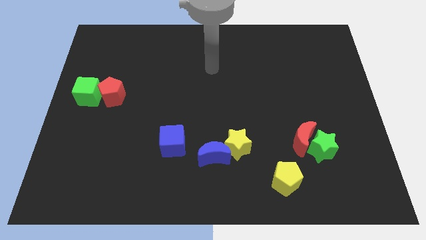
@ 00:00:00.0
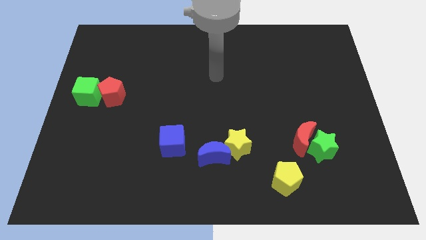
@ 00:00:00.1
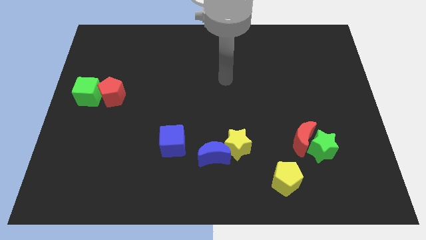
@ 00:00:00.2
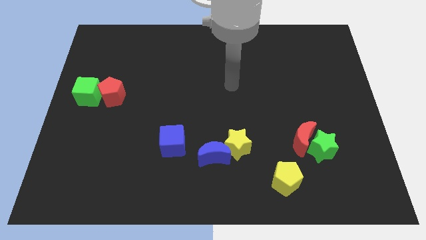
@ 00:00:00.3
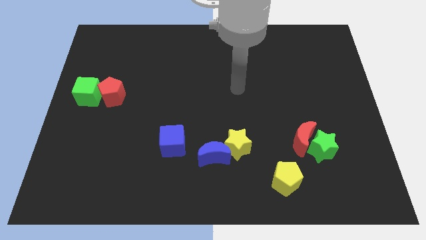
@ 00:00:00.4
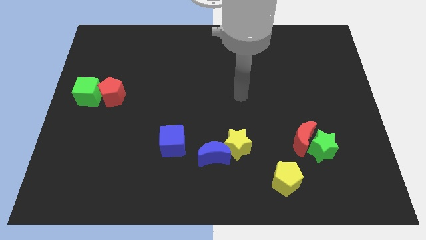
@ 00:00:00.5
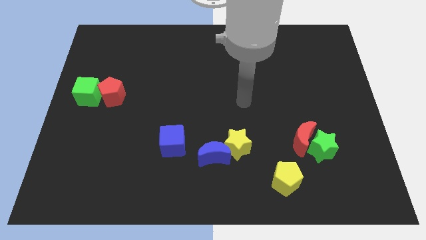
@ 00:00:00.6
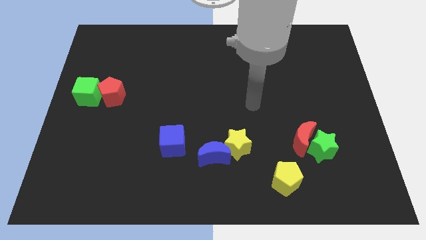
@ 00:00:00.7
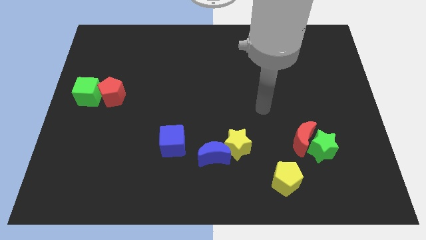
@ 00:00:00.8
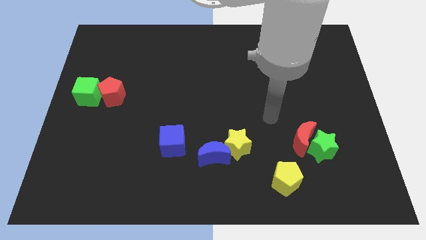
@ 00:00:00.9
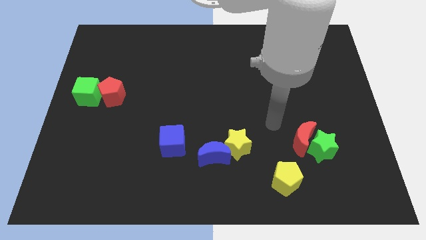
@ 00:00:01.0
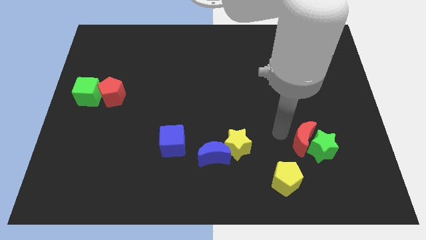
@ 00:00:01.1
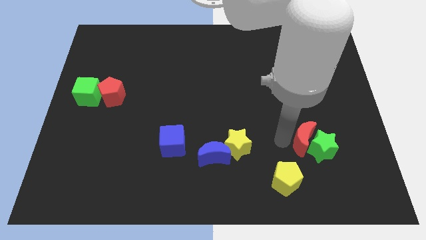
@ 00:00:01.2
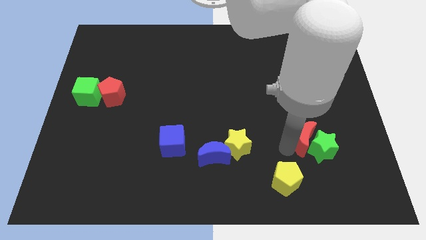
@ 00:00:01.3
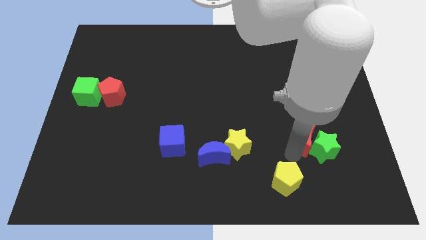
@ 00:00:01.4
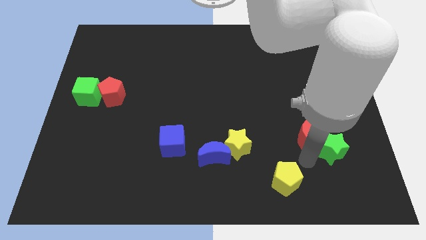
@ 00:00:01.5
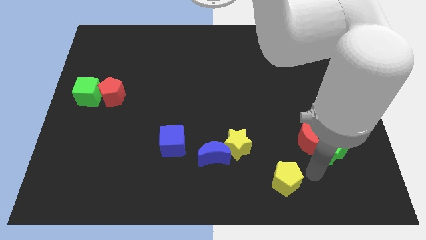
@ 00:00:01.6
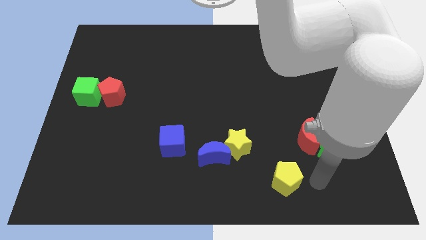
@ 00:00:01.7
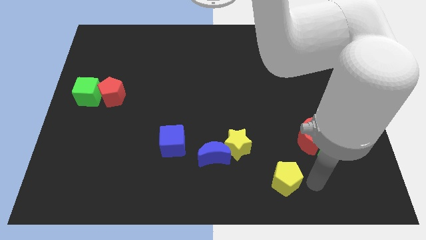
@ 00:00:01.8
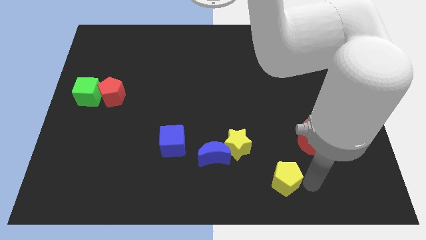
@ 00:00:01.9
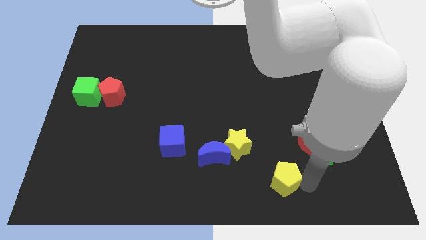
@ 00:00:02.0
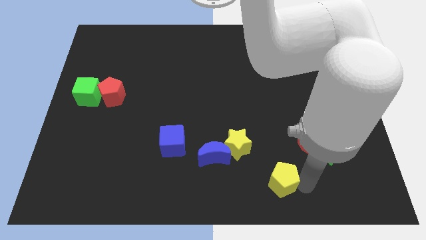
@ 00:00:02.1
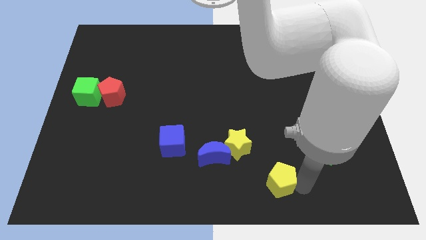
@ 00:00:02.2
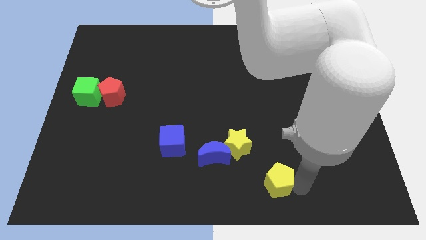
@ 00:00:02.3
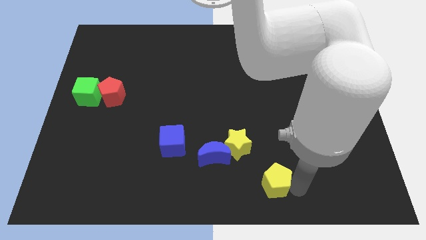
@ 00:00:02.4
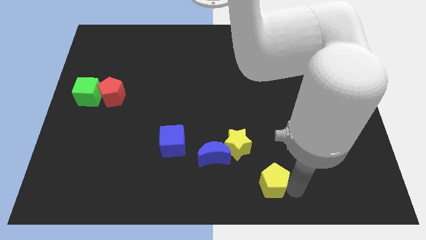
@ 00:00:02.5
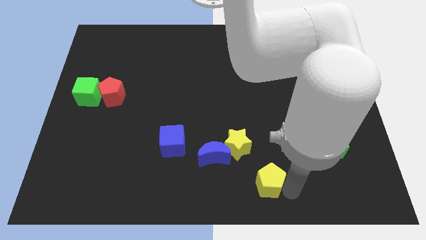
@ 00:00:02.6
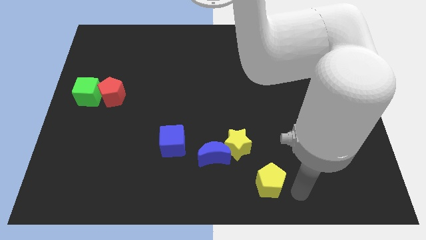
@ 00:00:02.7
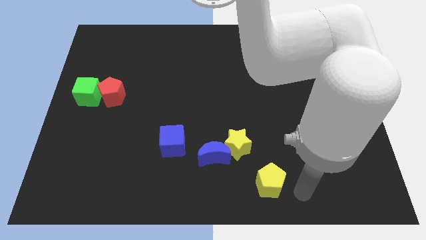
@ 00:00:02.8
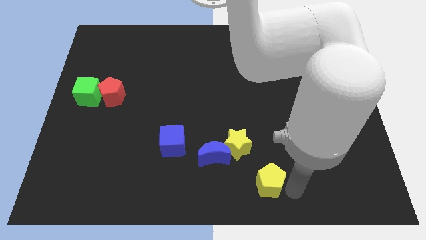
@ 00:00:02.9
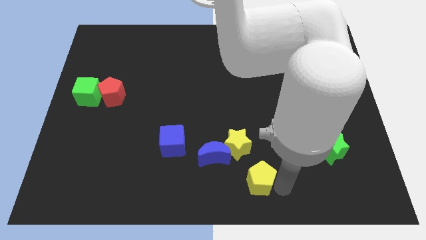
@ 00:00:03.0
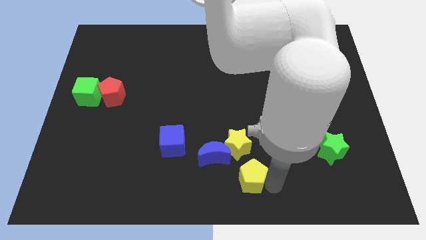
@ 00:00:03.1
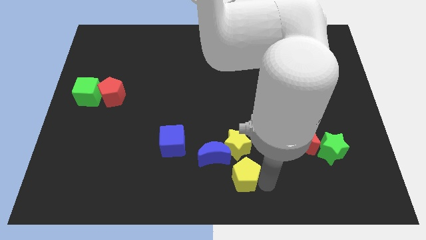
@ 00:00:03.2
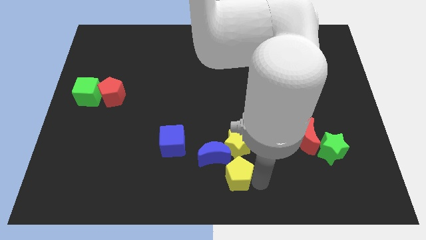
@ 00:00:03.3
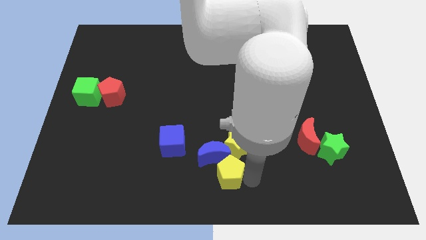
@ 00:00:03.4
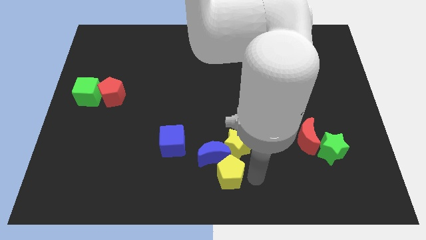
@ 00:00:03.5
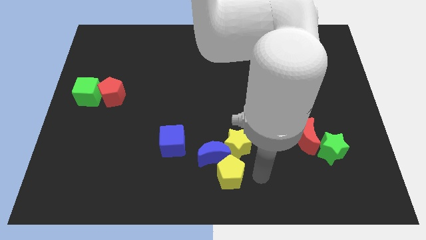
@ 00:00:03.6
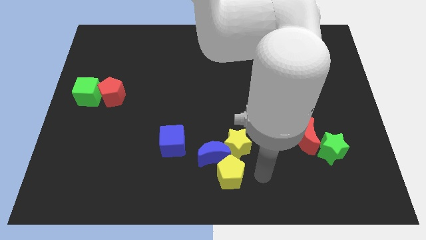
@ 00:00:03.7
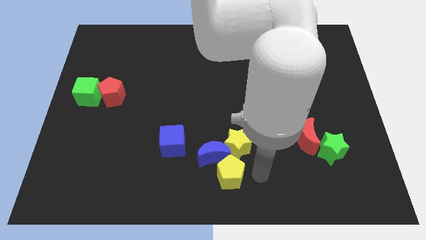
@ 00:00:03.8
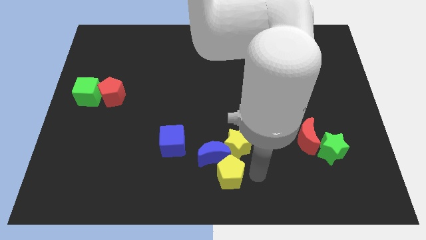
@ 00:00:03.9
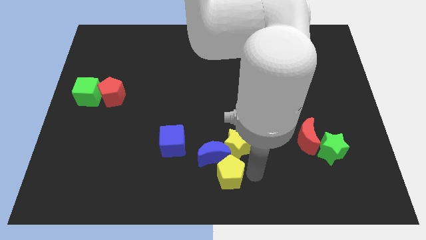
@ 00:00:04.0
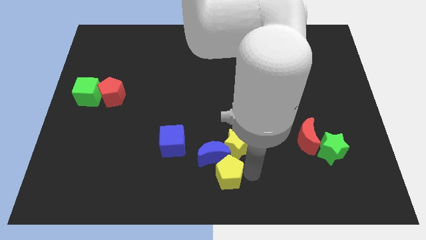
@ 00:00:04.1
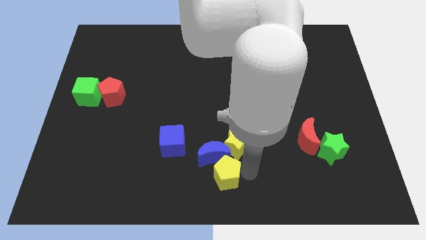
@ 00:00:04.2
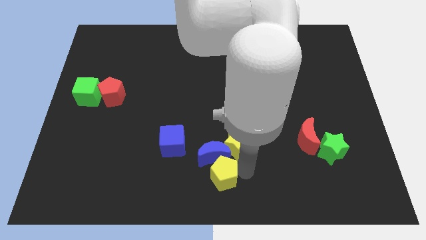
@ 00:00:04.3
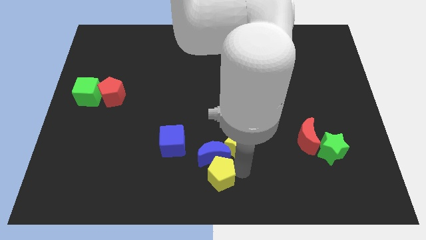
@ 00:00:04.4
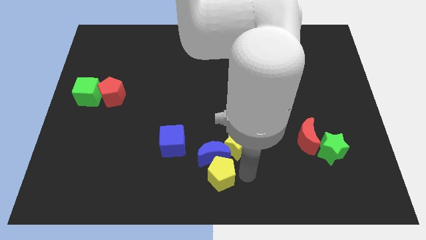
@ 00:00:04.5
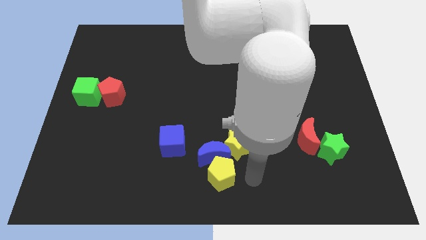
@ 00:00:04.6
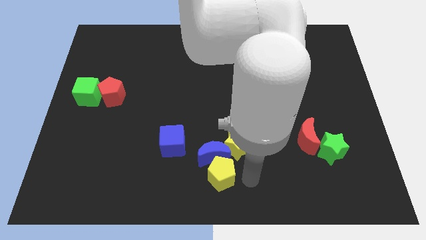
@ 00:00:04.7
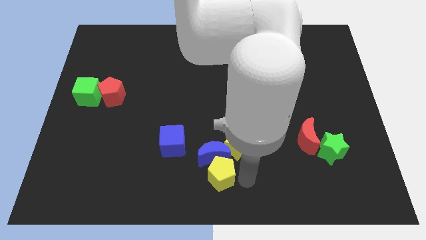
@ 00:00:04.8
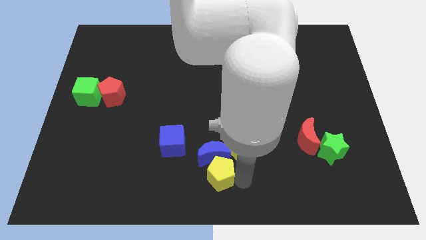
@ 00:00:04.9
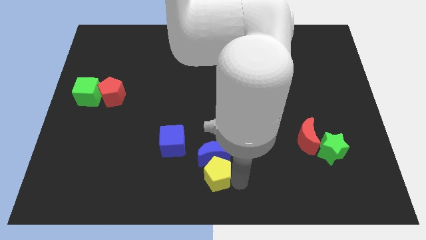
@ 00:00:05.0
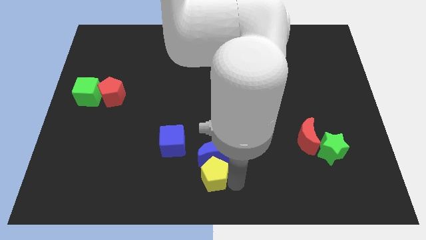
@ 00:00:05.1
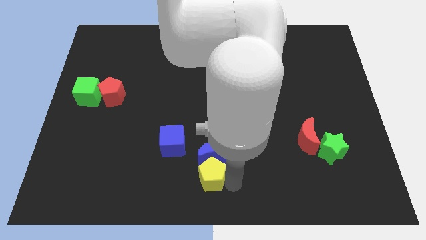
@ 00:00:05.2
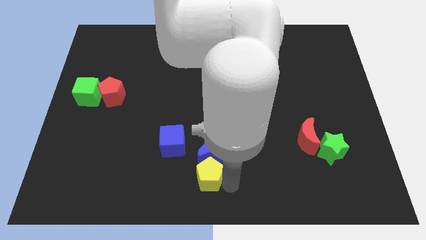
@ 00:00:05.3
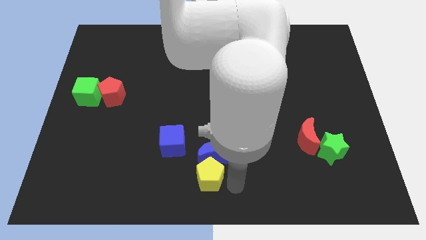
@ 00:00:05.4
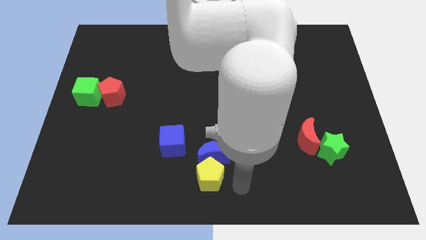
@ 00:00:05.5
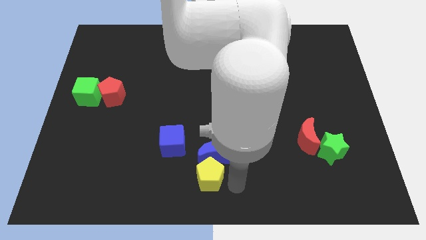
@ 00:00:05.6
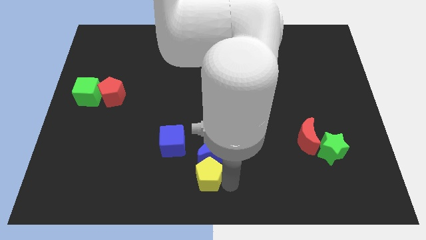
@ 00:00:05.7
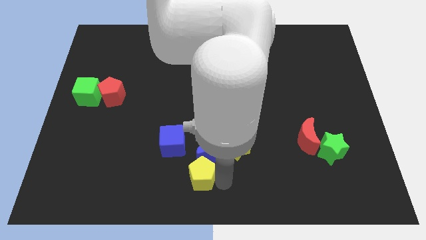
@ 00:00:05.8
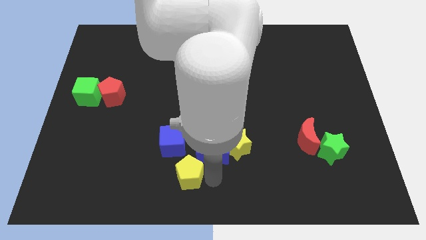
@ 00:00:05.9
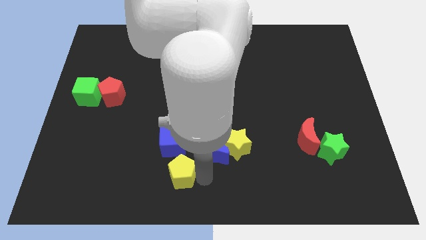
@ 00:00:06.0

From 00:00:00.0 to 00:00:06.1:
slide the yellow pentagon to the left

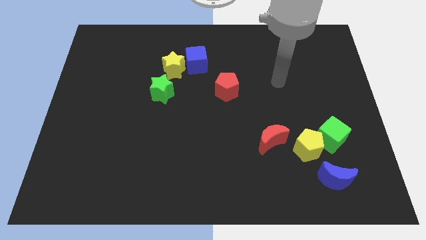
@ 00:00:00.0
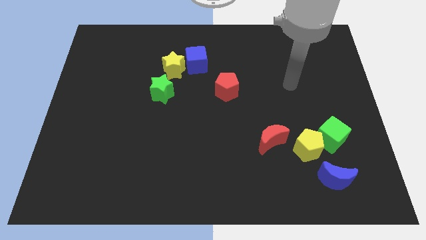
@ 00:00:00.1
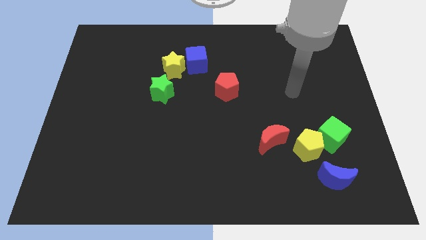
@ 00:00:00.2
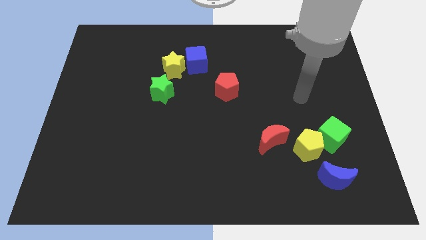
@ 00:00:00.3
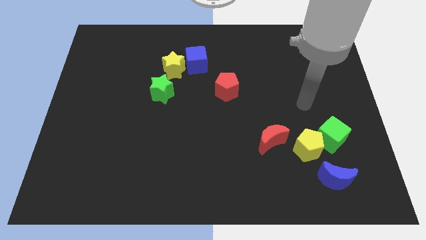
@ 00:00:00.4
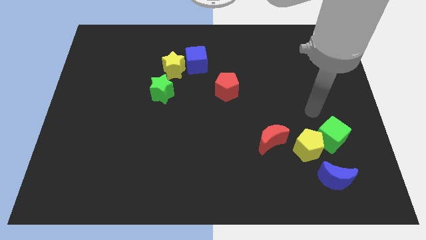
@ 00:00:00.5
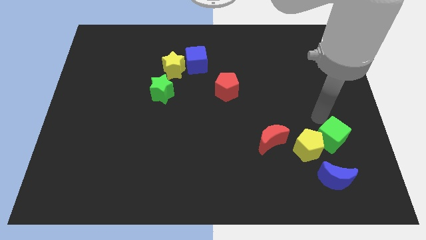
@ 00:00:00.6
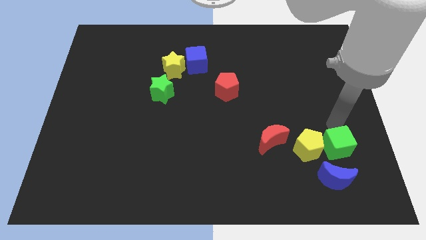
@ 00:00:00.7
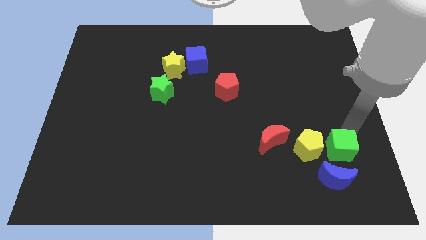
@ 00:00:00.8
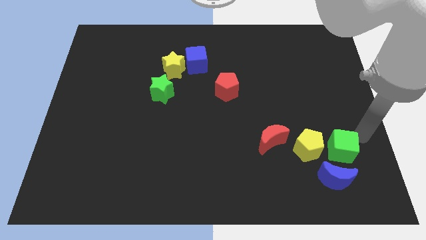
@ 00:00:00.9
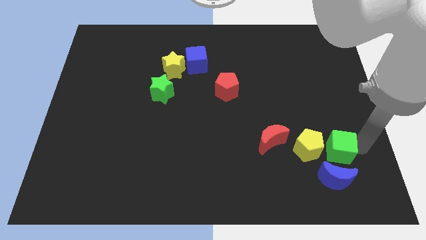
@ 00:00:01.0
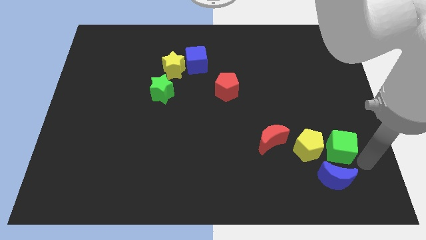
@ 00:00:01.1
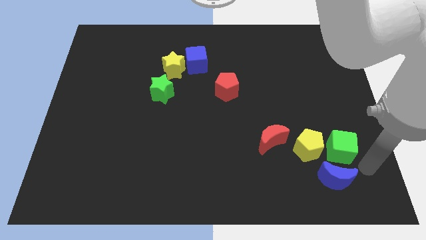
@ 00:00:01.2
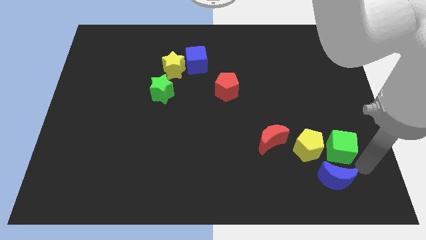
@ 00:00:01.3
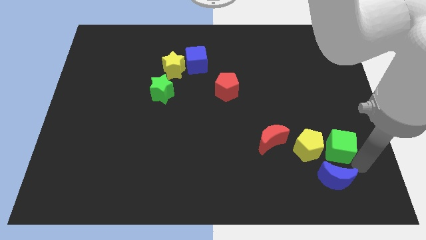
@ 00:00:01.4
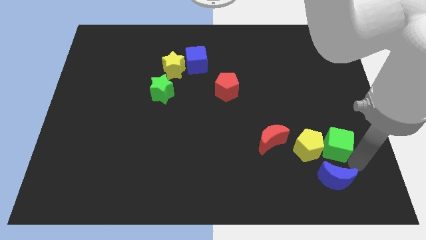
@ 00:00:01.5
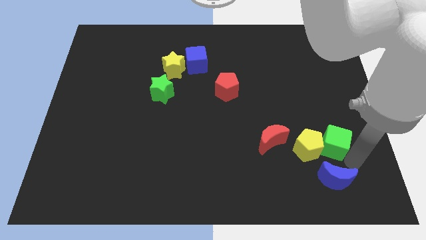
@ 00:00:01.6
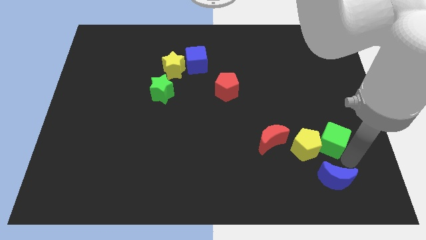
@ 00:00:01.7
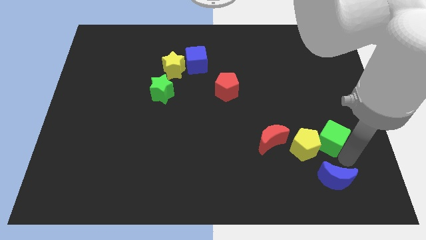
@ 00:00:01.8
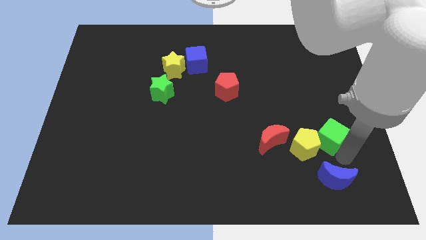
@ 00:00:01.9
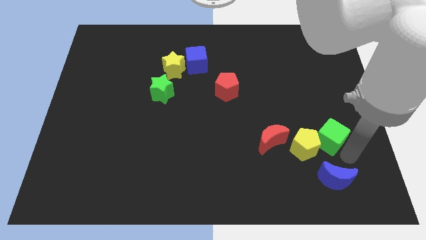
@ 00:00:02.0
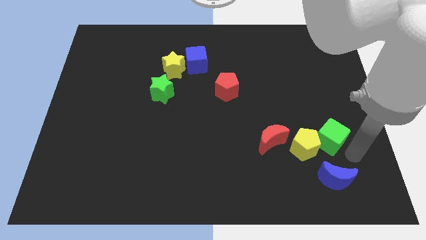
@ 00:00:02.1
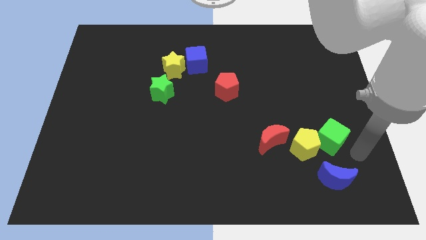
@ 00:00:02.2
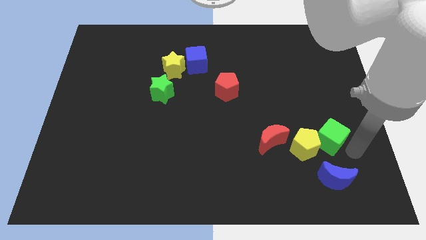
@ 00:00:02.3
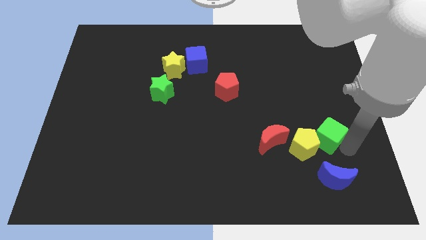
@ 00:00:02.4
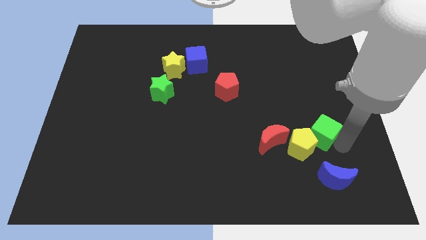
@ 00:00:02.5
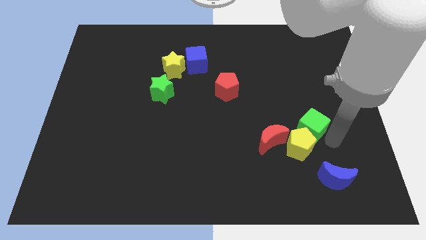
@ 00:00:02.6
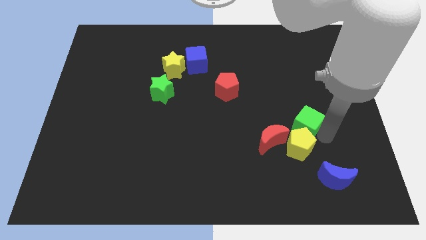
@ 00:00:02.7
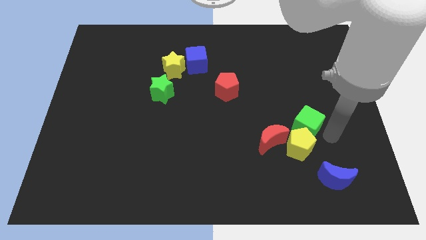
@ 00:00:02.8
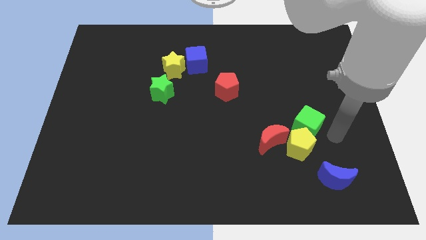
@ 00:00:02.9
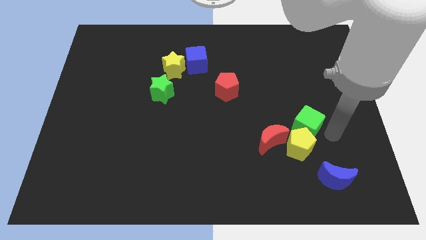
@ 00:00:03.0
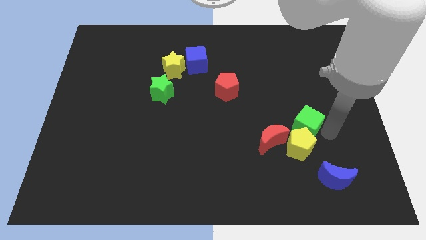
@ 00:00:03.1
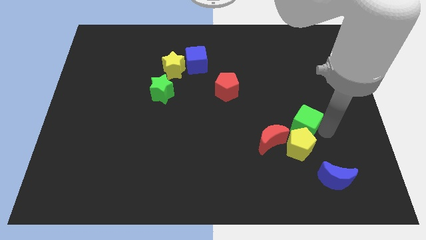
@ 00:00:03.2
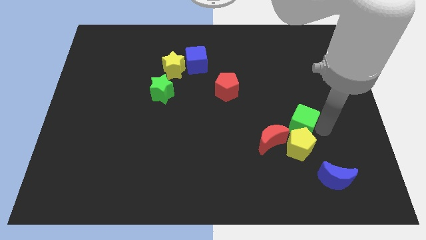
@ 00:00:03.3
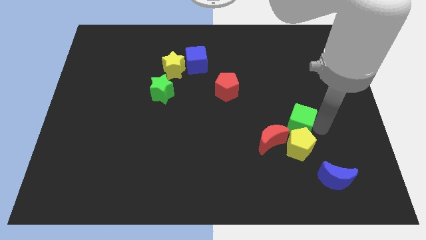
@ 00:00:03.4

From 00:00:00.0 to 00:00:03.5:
slide the green cube upwards and then to the left a little
